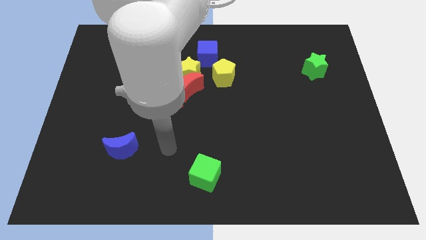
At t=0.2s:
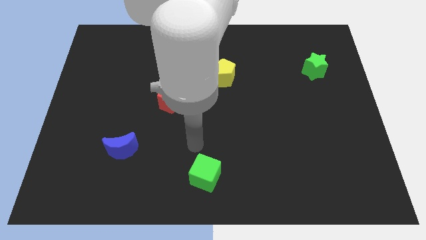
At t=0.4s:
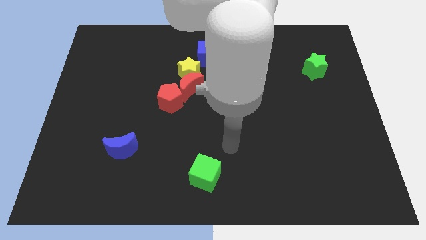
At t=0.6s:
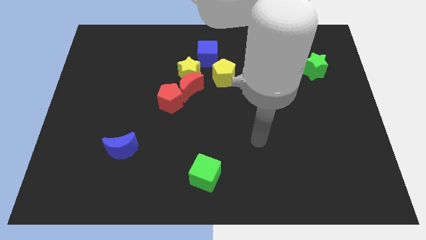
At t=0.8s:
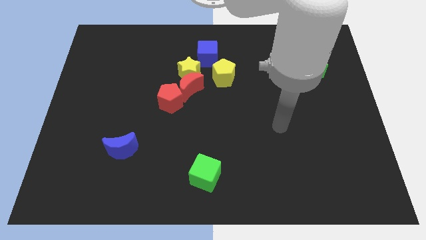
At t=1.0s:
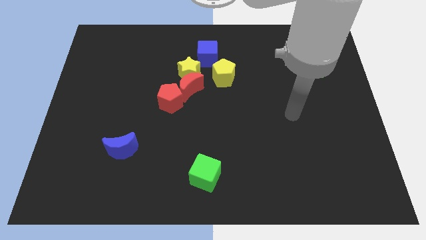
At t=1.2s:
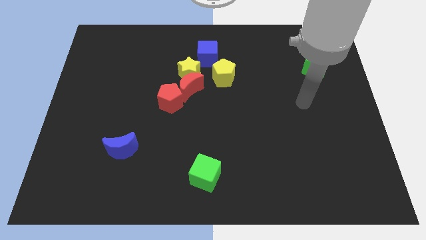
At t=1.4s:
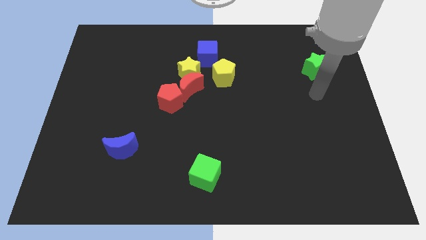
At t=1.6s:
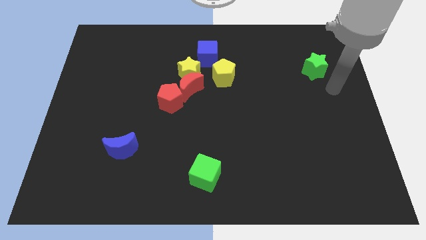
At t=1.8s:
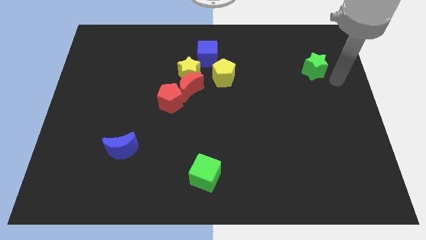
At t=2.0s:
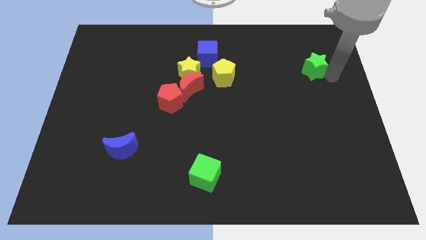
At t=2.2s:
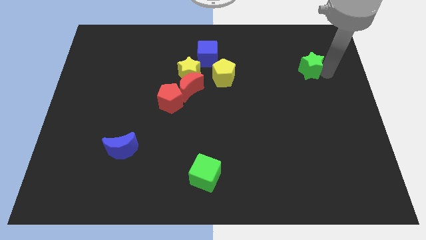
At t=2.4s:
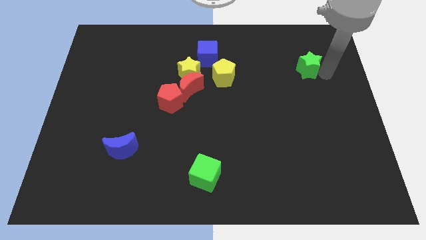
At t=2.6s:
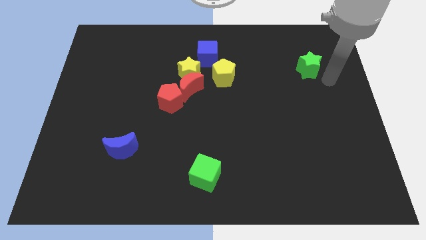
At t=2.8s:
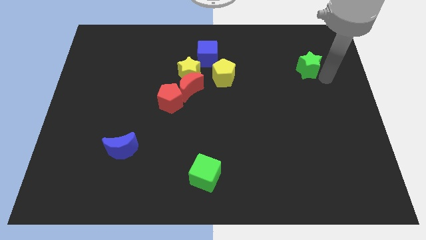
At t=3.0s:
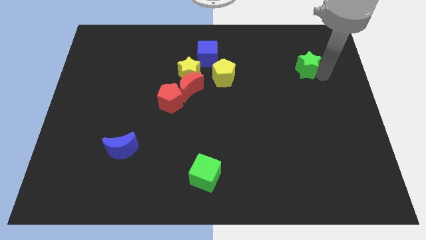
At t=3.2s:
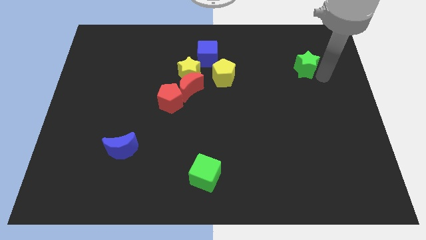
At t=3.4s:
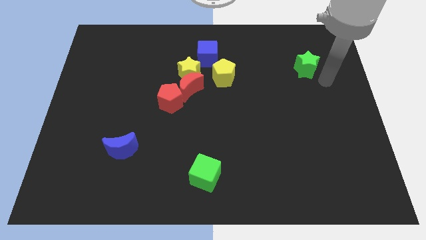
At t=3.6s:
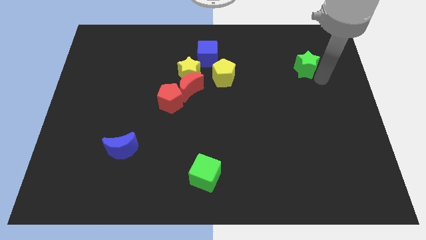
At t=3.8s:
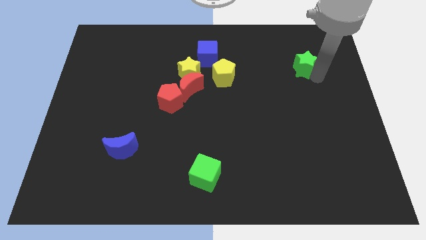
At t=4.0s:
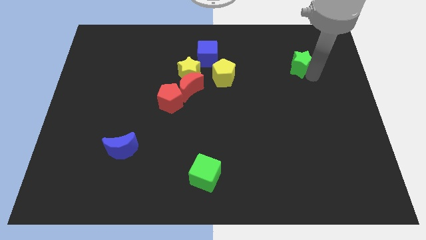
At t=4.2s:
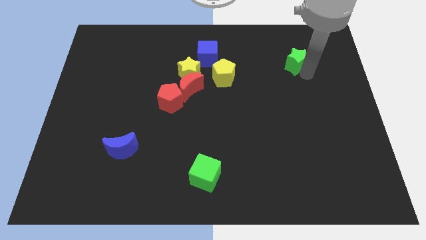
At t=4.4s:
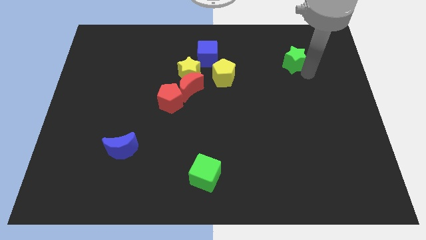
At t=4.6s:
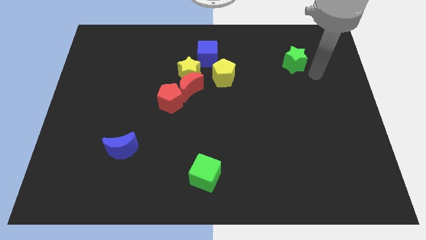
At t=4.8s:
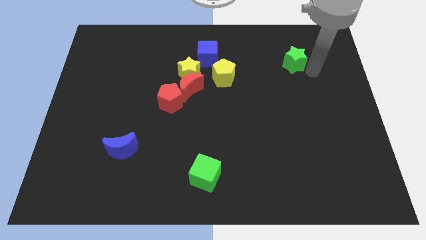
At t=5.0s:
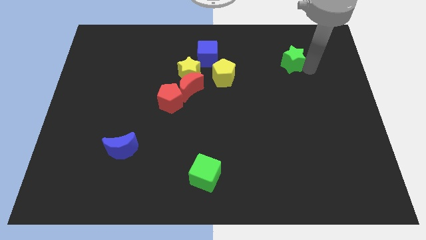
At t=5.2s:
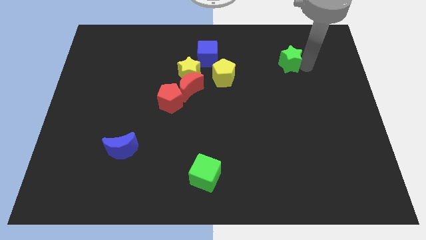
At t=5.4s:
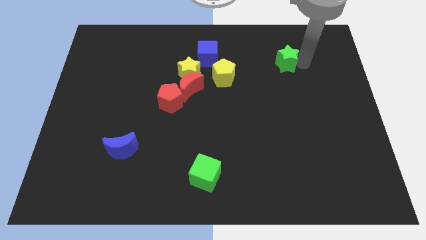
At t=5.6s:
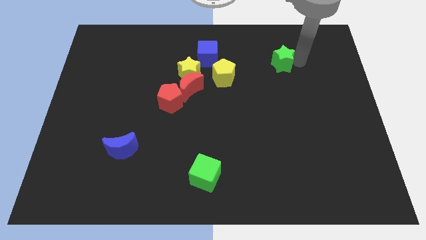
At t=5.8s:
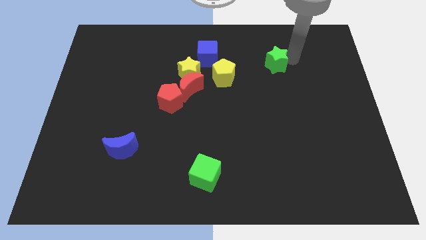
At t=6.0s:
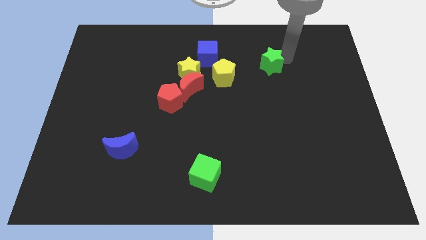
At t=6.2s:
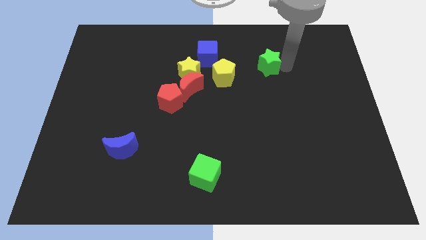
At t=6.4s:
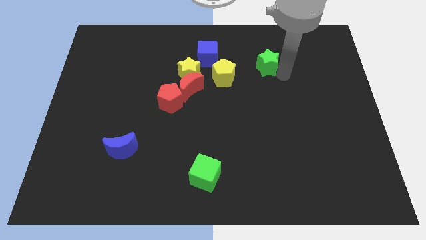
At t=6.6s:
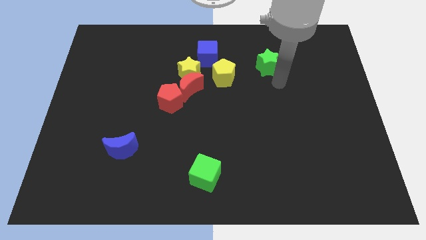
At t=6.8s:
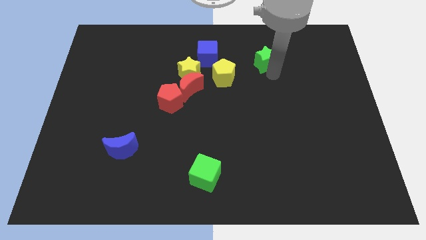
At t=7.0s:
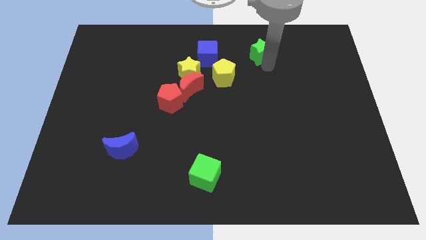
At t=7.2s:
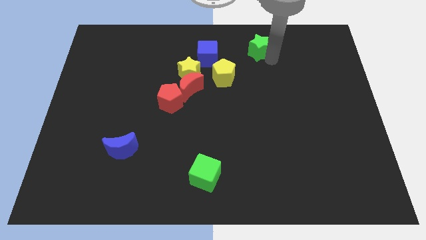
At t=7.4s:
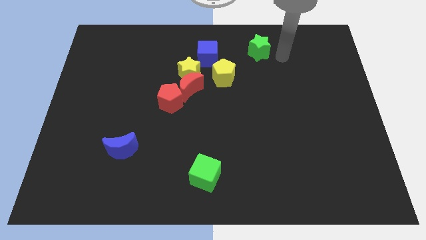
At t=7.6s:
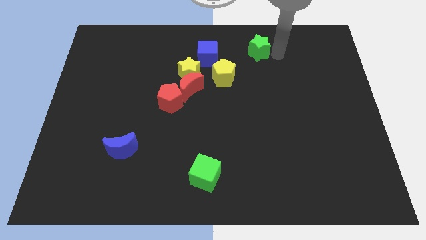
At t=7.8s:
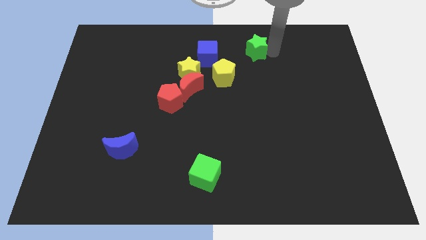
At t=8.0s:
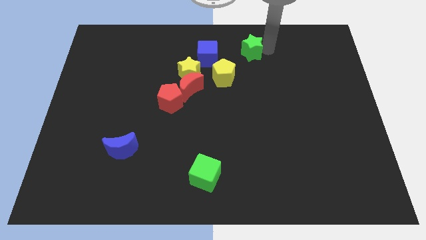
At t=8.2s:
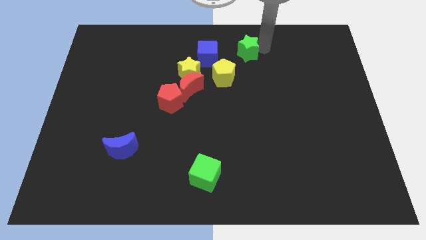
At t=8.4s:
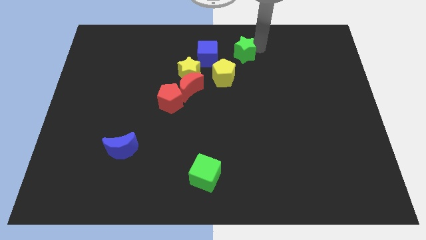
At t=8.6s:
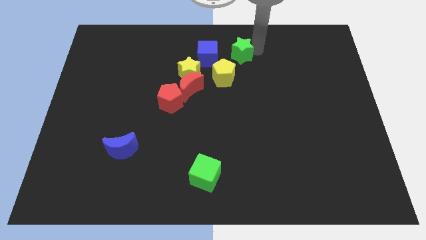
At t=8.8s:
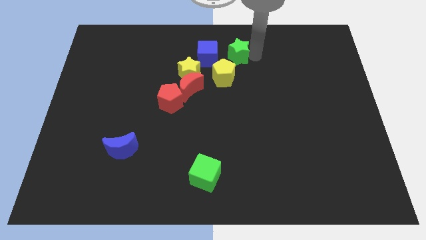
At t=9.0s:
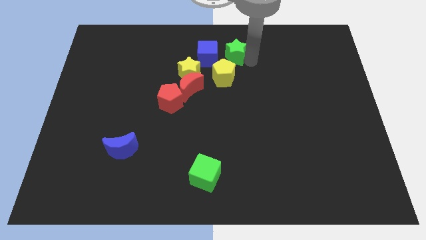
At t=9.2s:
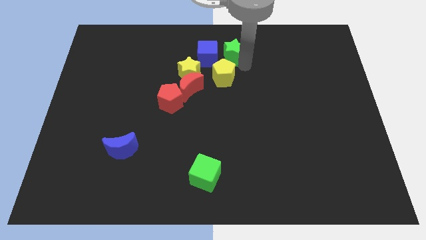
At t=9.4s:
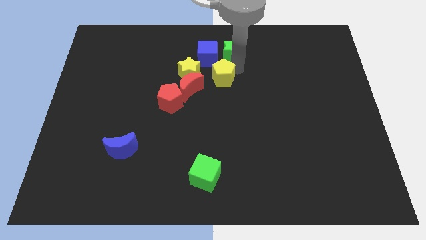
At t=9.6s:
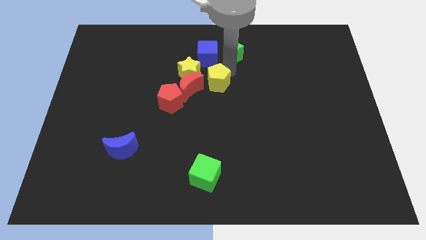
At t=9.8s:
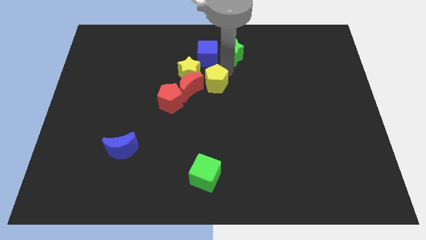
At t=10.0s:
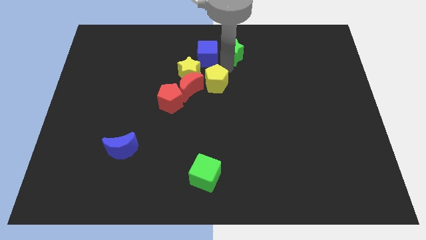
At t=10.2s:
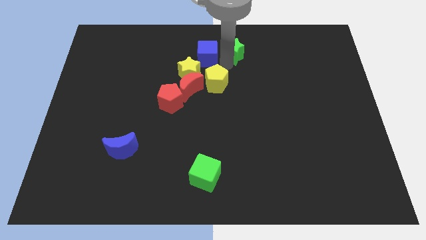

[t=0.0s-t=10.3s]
push the green star to the top

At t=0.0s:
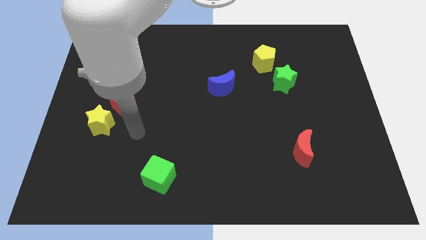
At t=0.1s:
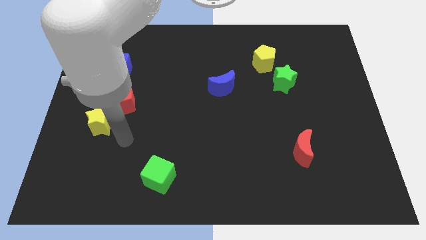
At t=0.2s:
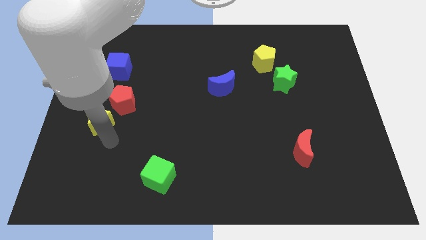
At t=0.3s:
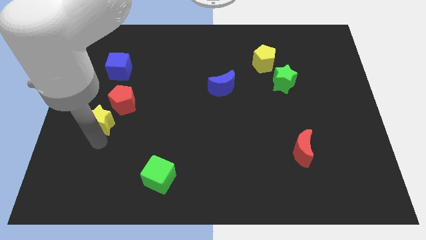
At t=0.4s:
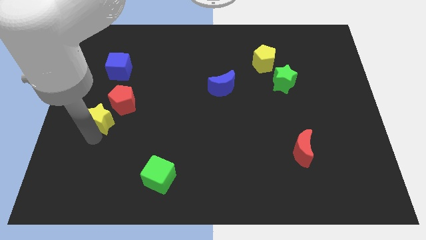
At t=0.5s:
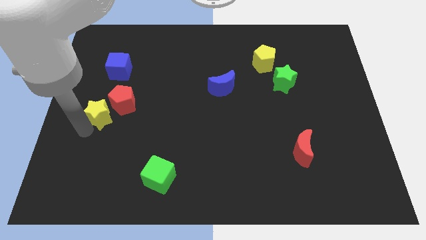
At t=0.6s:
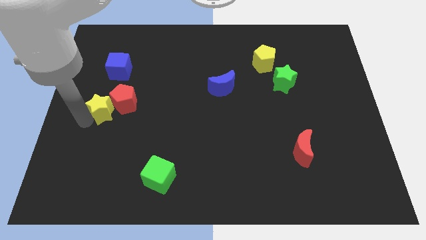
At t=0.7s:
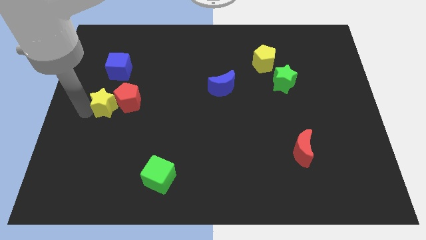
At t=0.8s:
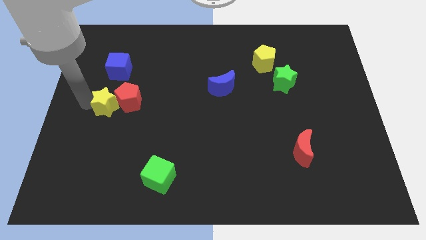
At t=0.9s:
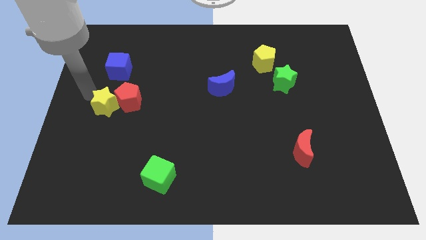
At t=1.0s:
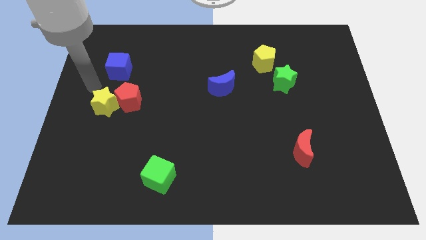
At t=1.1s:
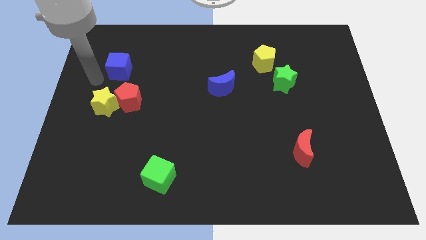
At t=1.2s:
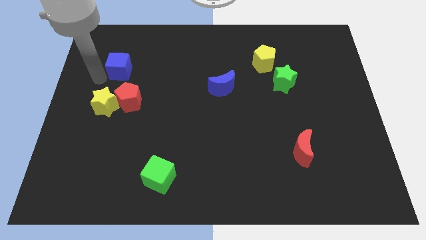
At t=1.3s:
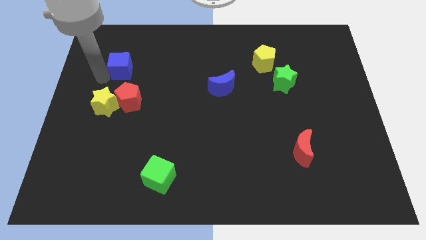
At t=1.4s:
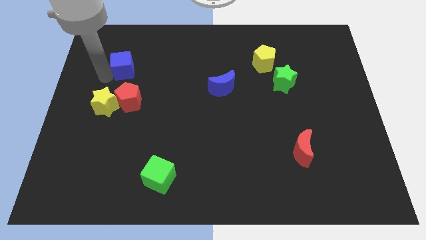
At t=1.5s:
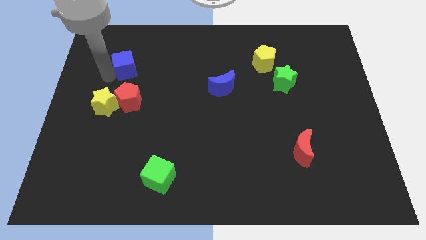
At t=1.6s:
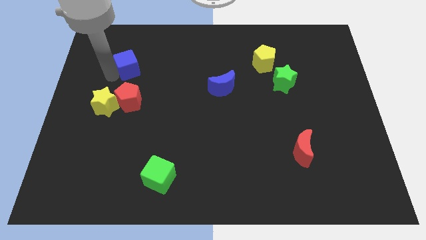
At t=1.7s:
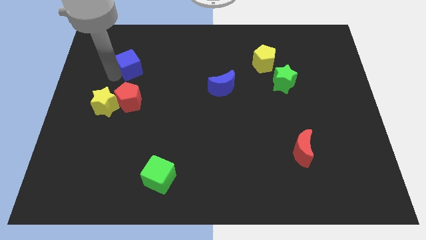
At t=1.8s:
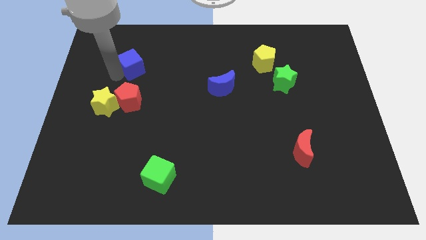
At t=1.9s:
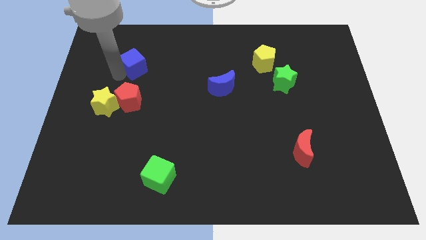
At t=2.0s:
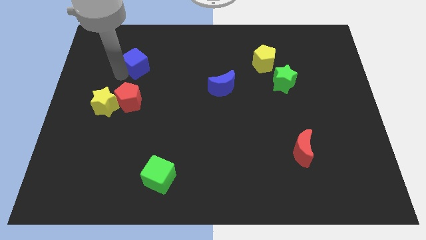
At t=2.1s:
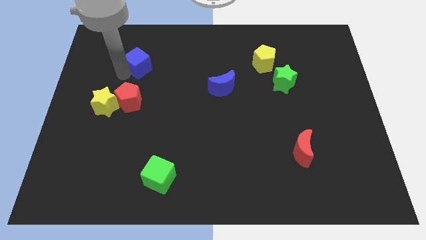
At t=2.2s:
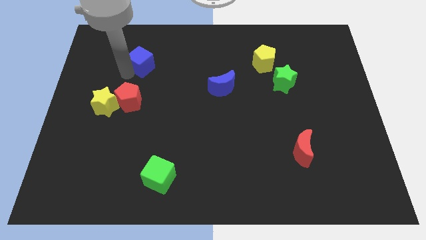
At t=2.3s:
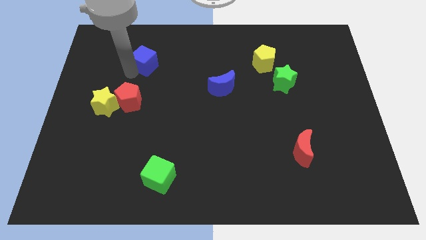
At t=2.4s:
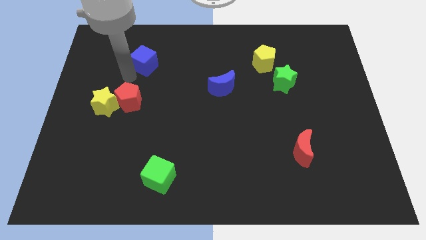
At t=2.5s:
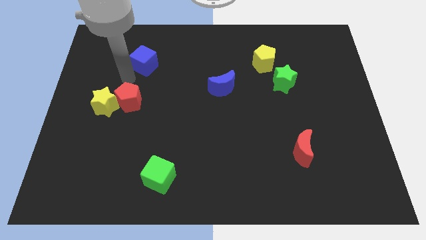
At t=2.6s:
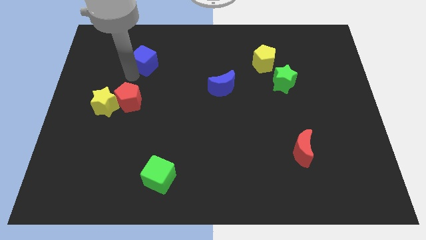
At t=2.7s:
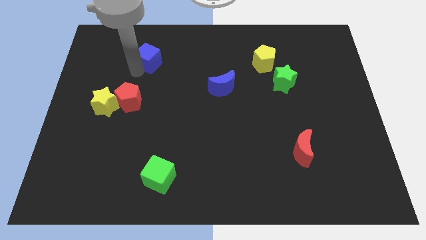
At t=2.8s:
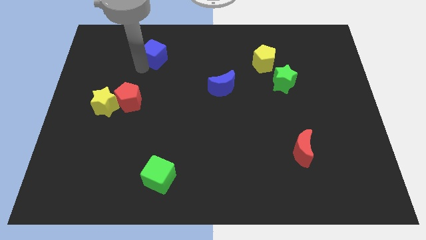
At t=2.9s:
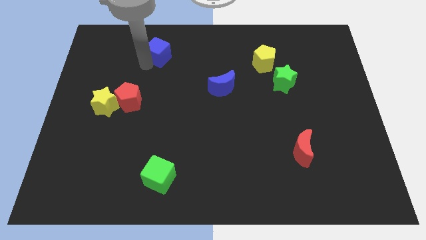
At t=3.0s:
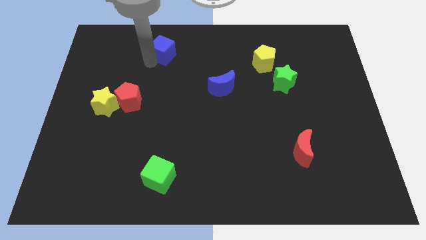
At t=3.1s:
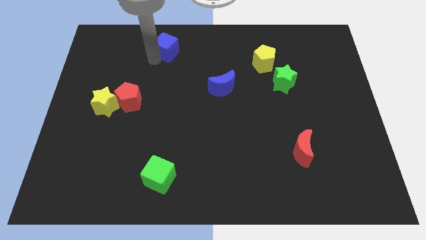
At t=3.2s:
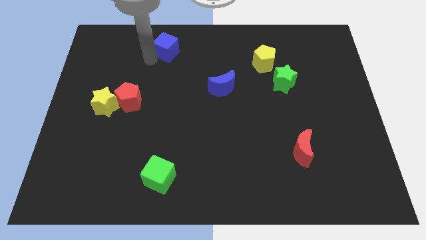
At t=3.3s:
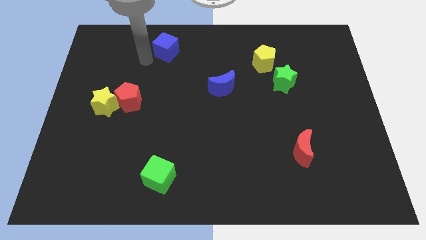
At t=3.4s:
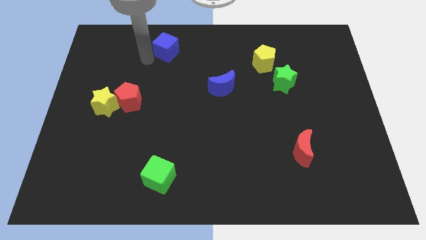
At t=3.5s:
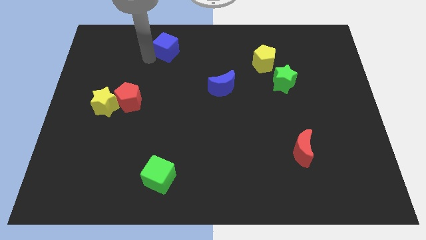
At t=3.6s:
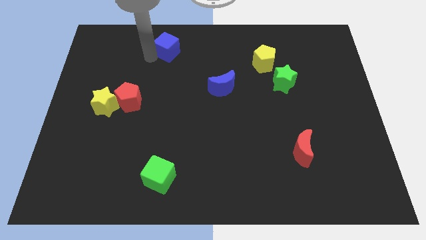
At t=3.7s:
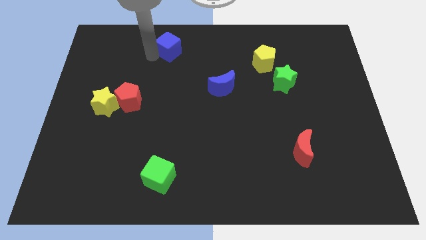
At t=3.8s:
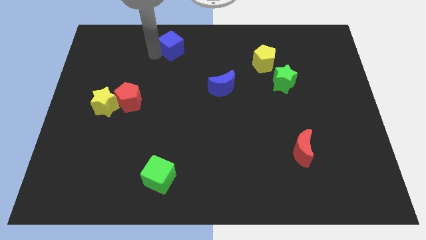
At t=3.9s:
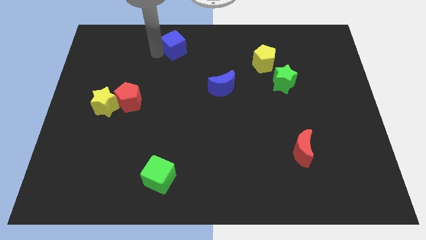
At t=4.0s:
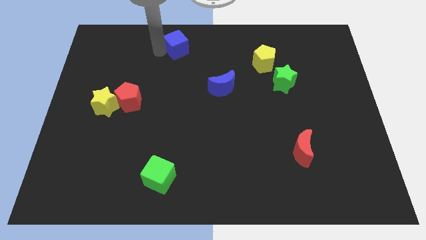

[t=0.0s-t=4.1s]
put the blue cube to the towards your base
